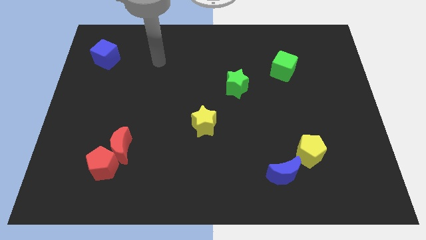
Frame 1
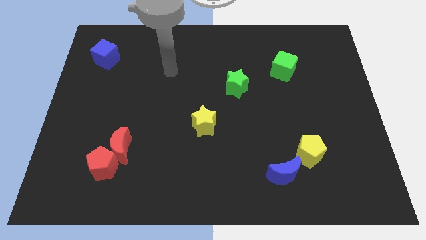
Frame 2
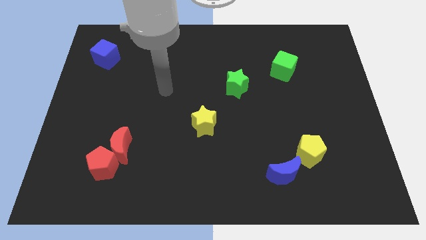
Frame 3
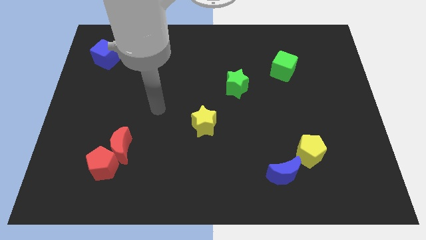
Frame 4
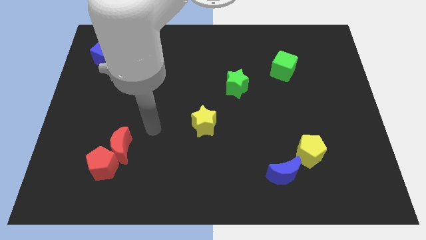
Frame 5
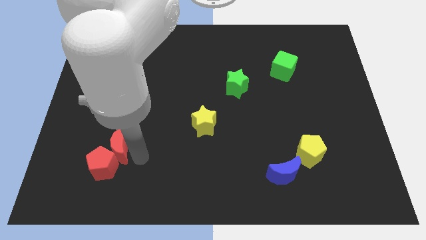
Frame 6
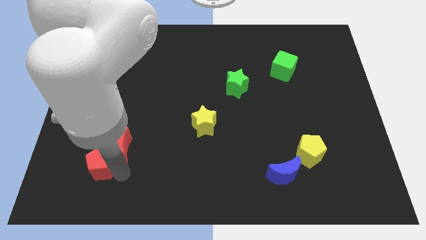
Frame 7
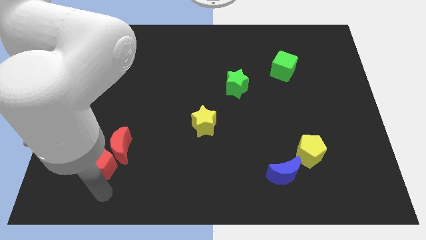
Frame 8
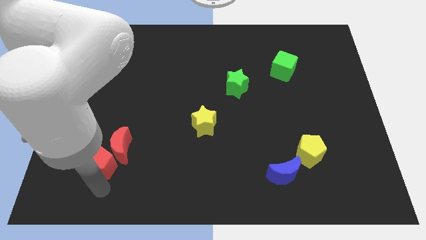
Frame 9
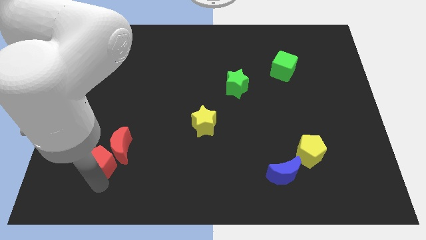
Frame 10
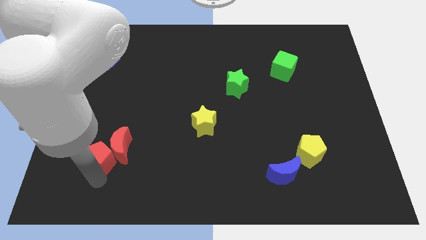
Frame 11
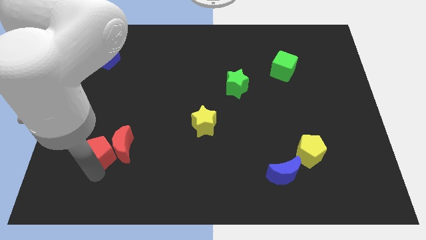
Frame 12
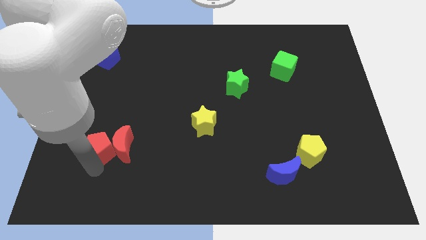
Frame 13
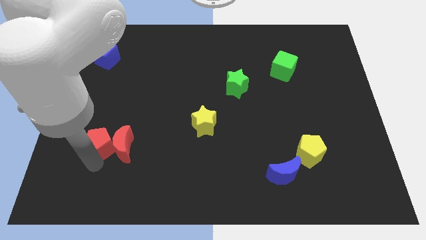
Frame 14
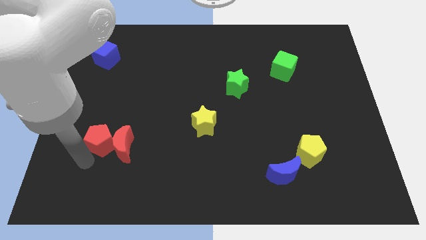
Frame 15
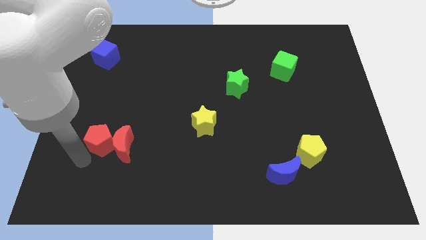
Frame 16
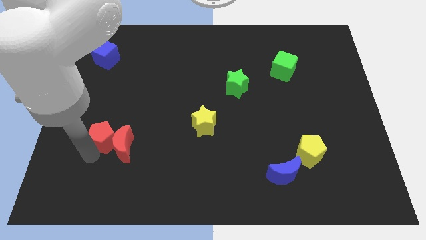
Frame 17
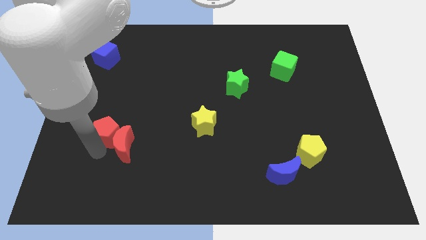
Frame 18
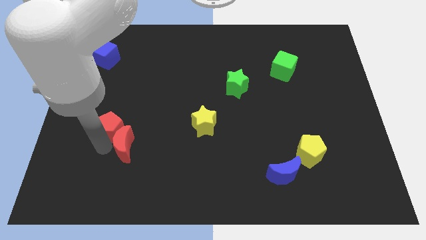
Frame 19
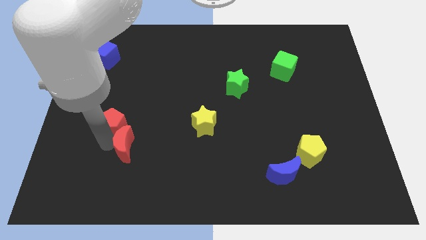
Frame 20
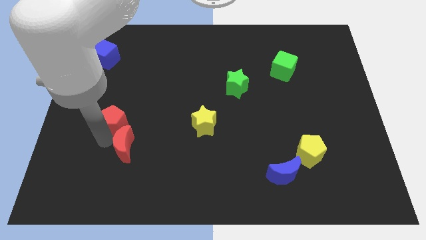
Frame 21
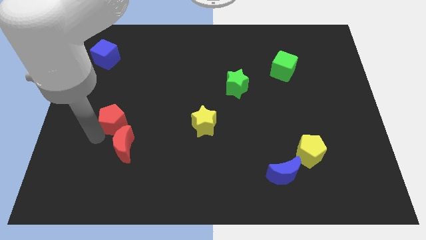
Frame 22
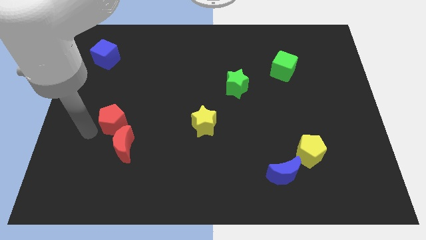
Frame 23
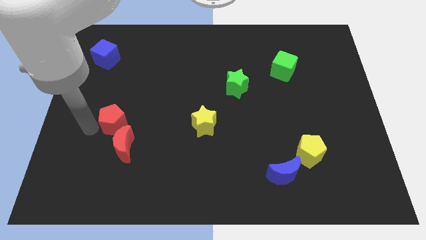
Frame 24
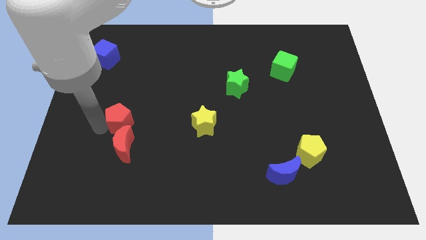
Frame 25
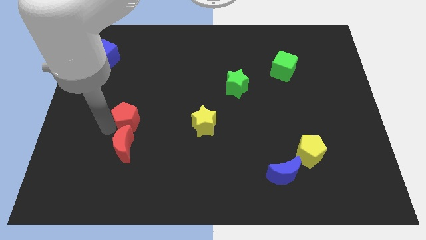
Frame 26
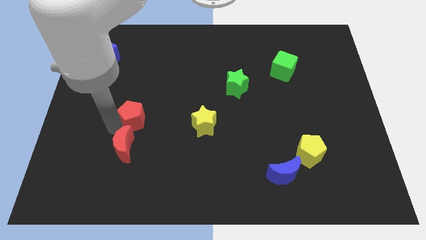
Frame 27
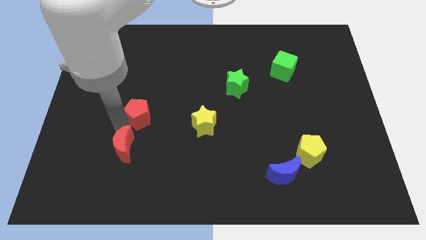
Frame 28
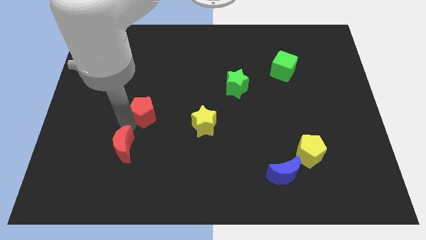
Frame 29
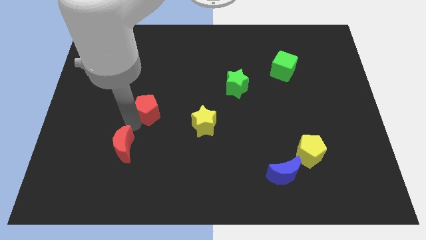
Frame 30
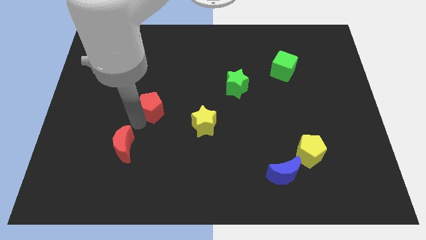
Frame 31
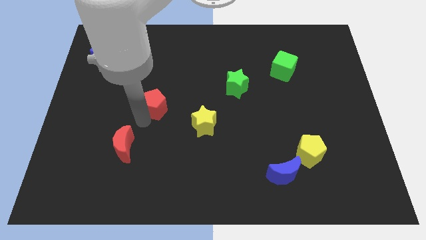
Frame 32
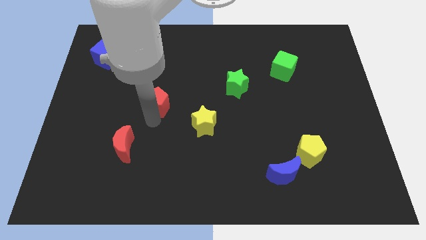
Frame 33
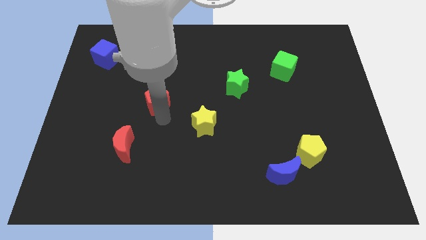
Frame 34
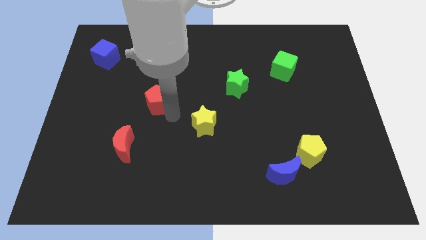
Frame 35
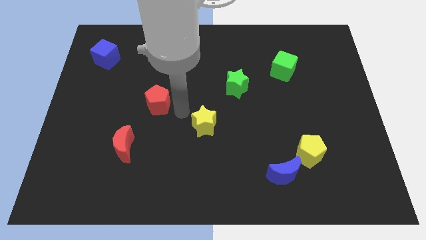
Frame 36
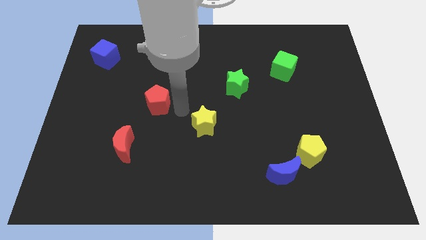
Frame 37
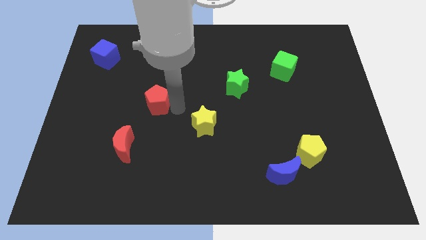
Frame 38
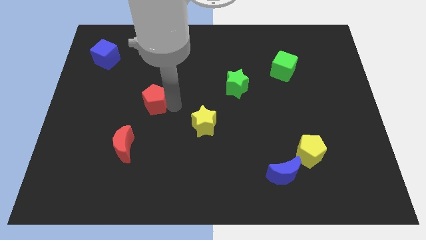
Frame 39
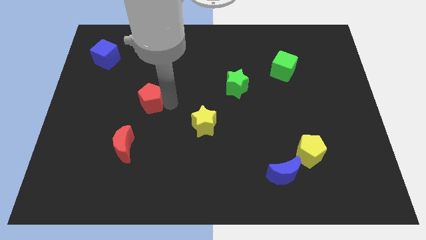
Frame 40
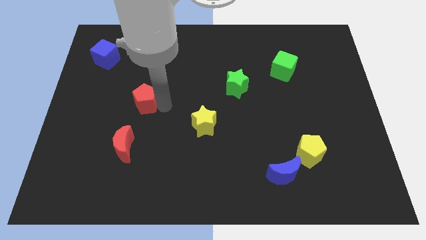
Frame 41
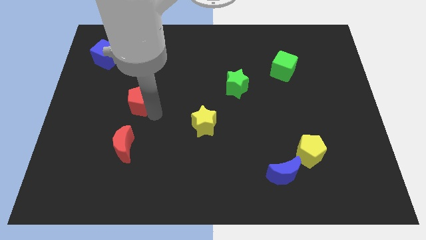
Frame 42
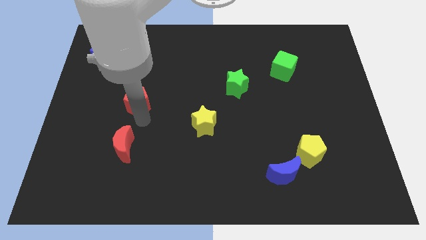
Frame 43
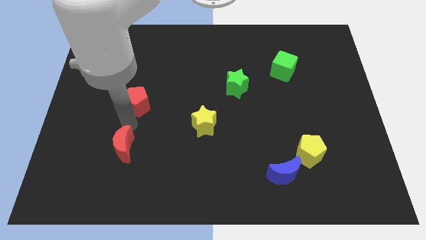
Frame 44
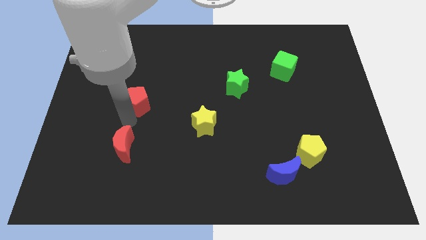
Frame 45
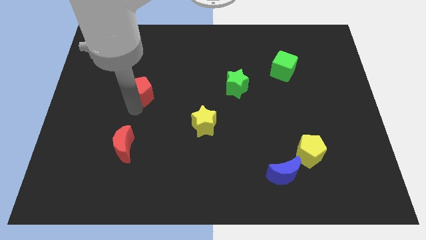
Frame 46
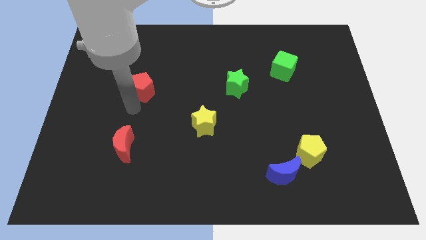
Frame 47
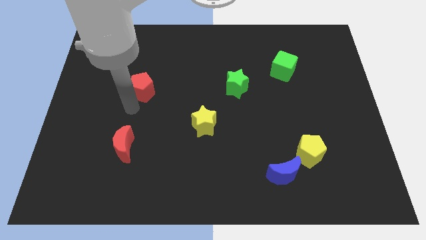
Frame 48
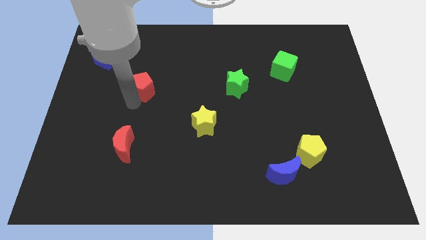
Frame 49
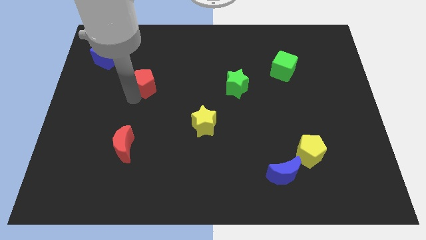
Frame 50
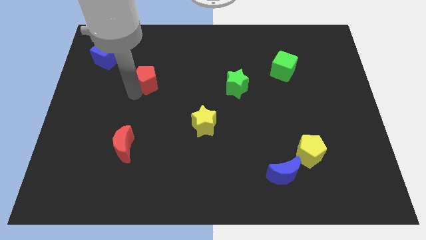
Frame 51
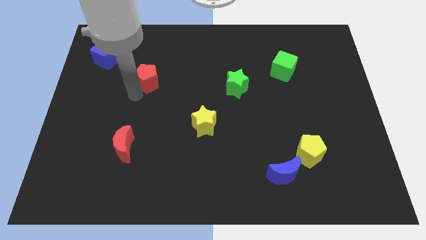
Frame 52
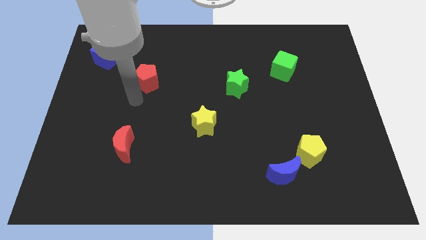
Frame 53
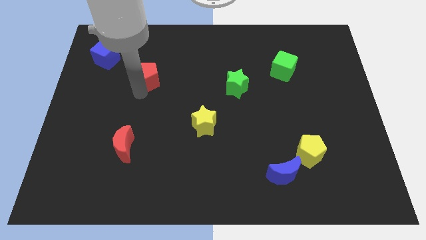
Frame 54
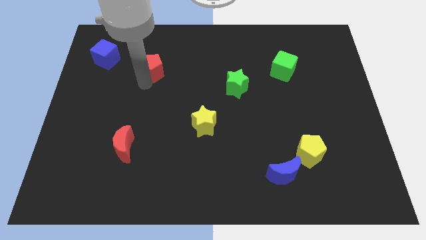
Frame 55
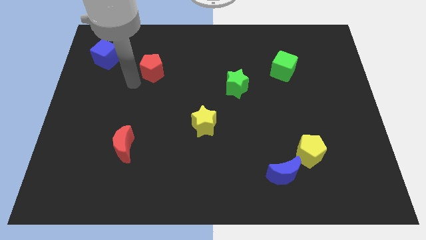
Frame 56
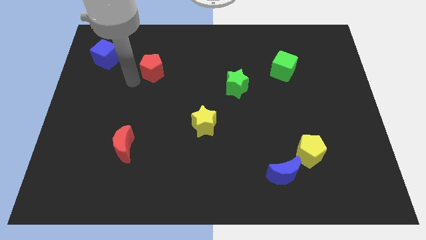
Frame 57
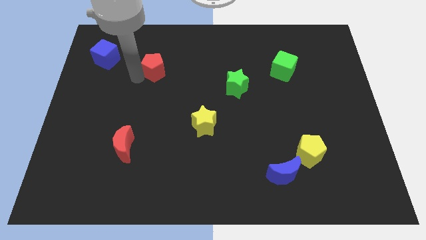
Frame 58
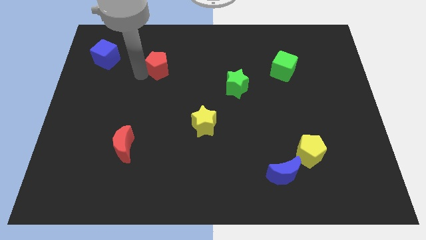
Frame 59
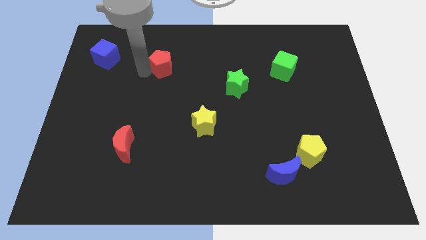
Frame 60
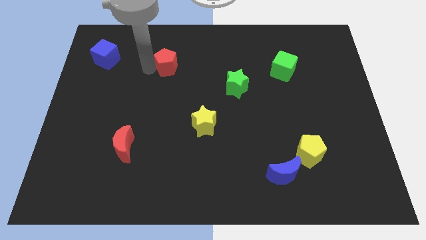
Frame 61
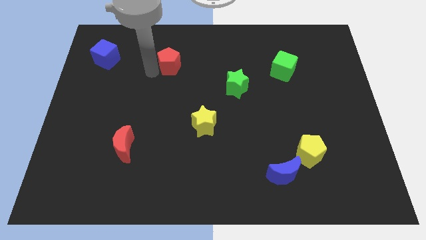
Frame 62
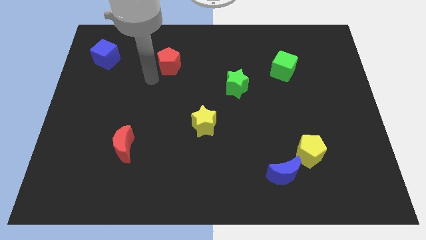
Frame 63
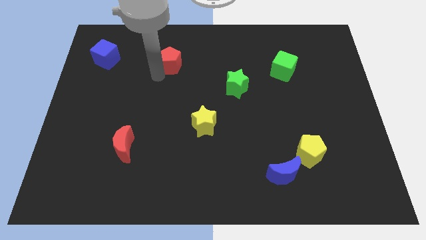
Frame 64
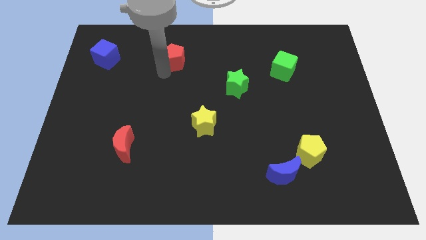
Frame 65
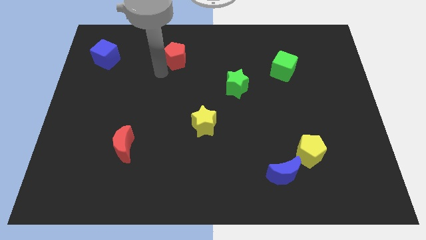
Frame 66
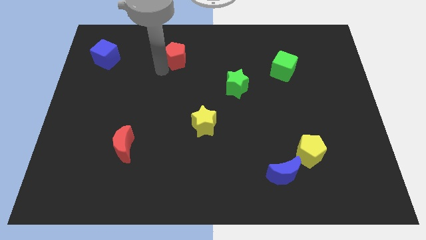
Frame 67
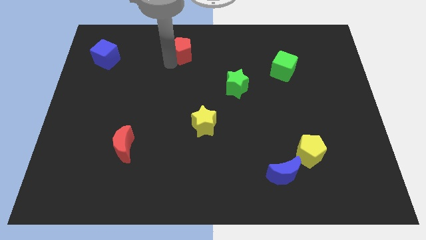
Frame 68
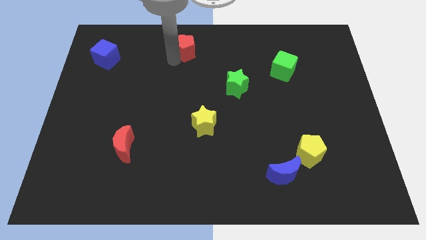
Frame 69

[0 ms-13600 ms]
put the red pentagon to the top

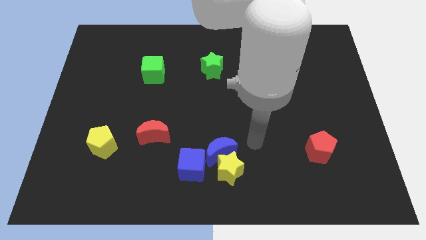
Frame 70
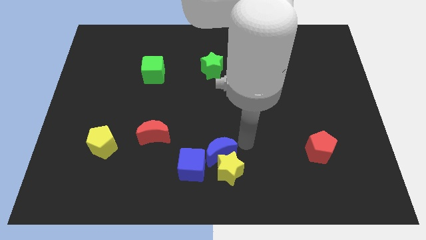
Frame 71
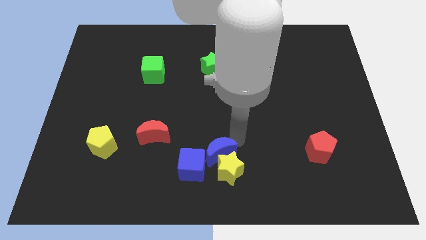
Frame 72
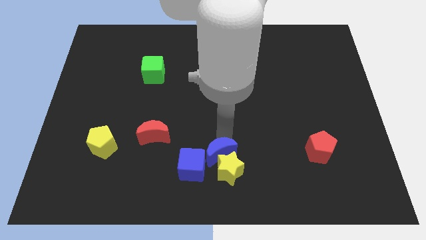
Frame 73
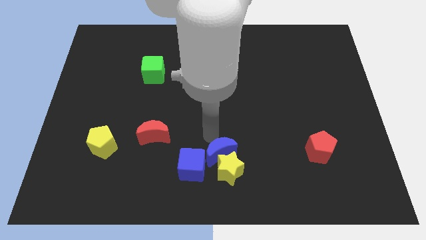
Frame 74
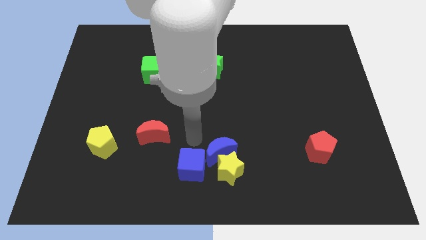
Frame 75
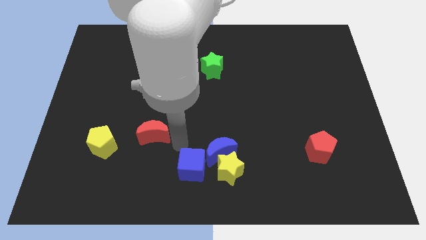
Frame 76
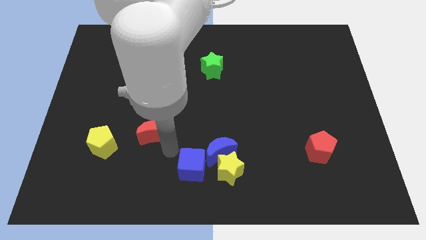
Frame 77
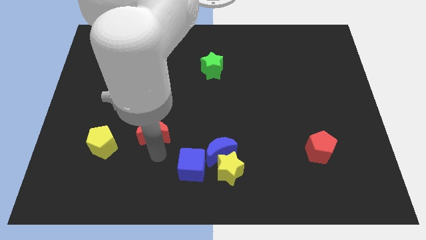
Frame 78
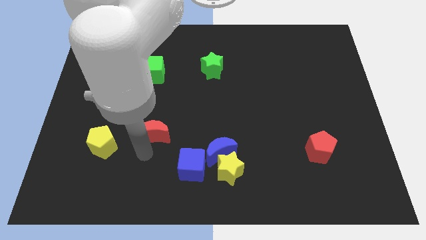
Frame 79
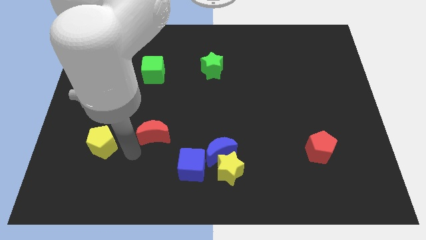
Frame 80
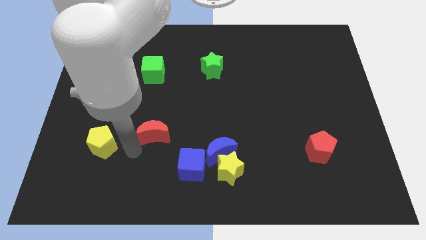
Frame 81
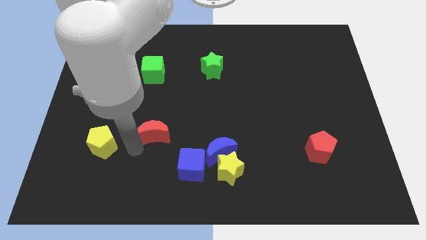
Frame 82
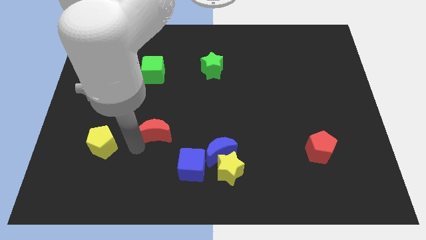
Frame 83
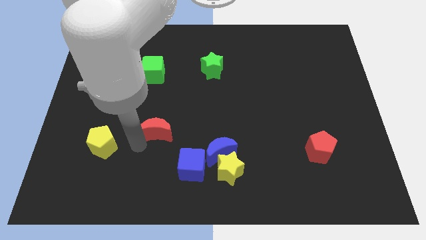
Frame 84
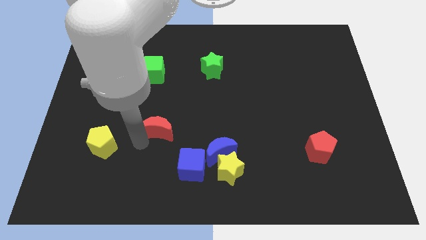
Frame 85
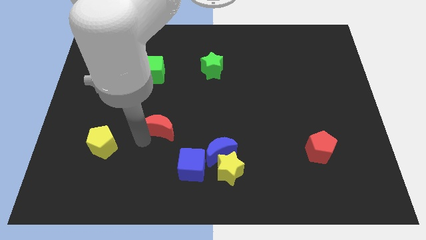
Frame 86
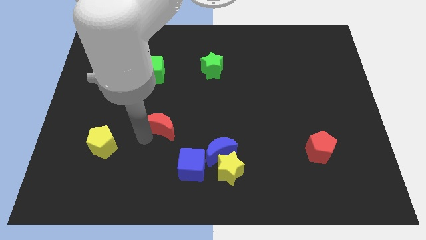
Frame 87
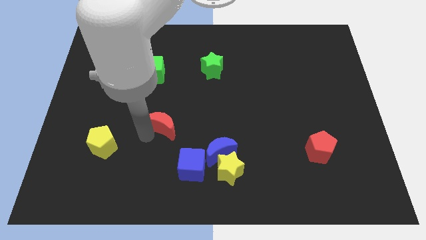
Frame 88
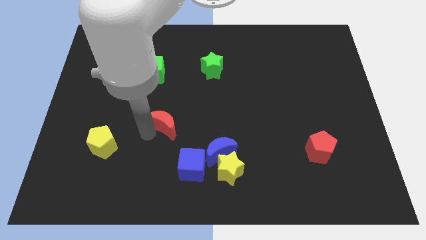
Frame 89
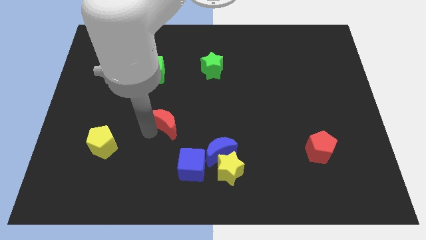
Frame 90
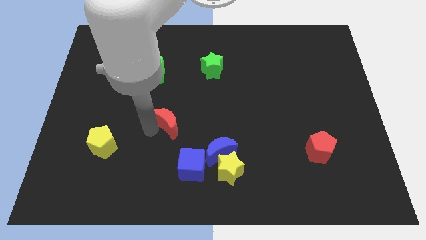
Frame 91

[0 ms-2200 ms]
push the red moon to the center of the board
